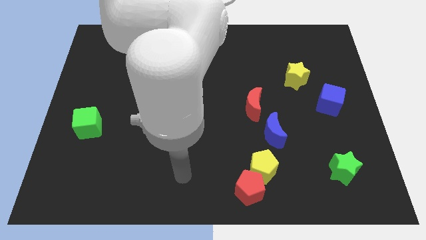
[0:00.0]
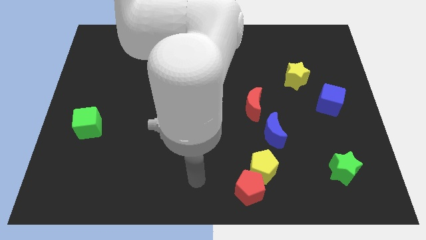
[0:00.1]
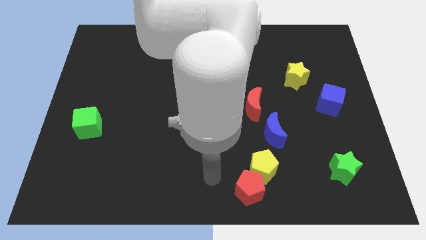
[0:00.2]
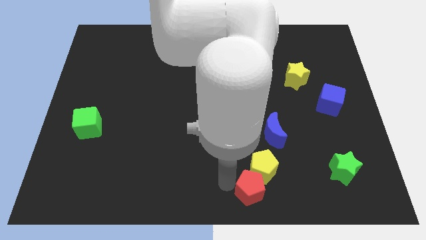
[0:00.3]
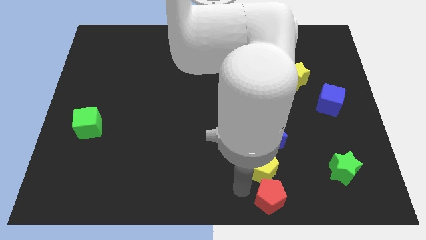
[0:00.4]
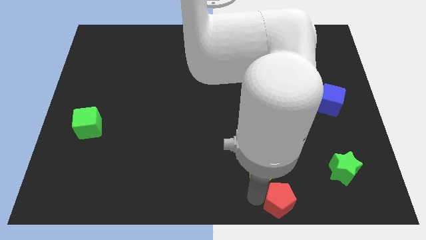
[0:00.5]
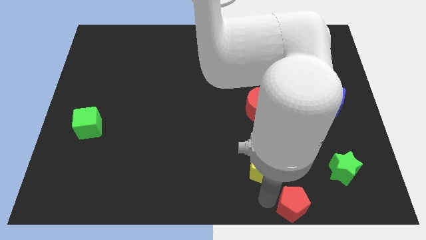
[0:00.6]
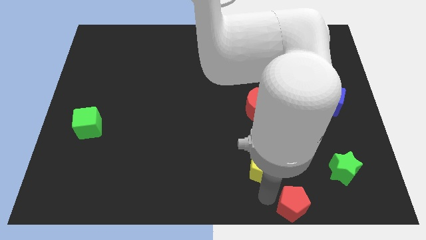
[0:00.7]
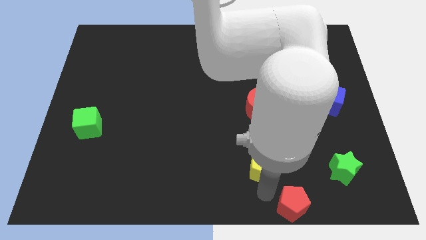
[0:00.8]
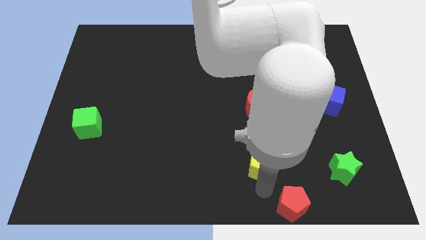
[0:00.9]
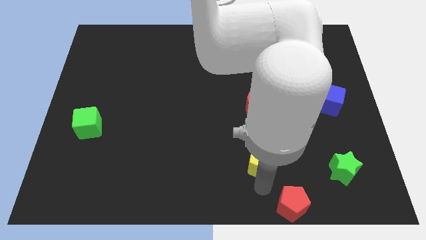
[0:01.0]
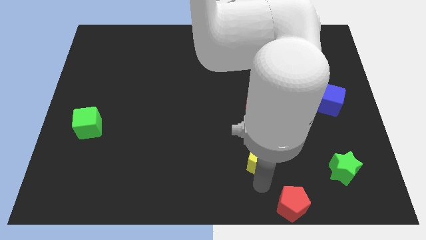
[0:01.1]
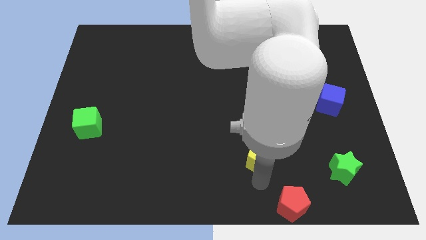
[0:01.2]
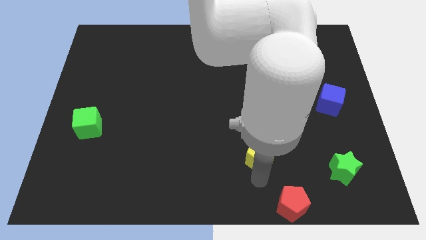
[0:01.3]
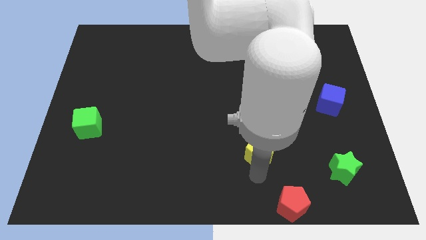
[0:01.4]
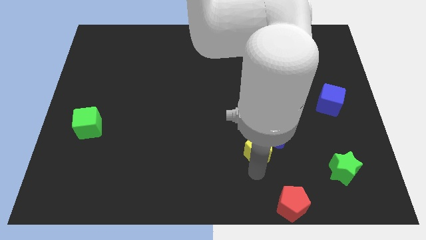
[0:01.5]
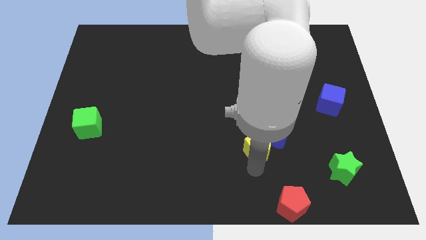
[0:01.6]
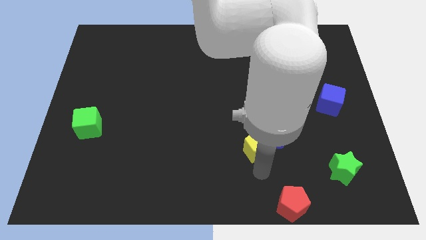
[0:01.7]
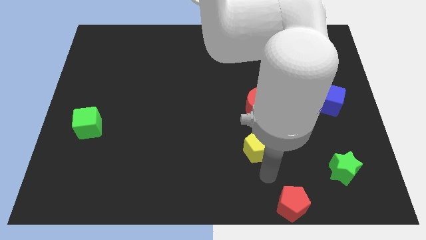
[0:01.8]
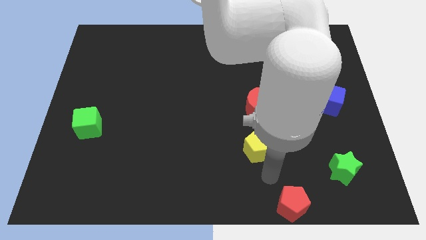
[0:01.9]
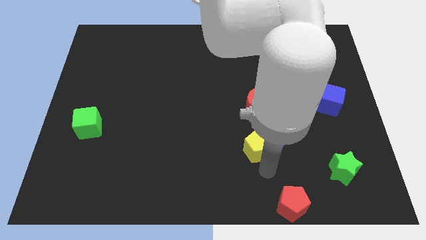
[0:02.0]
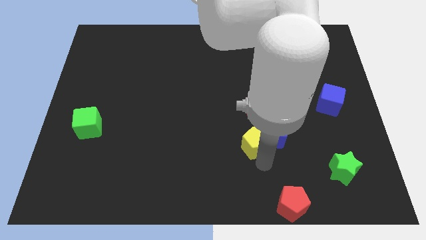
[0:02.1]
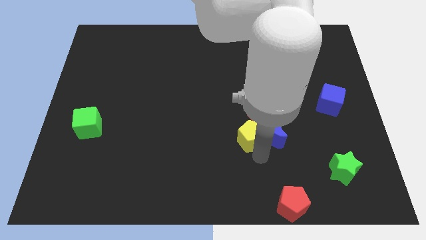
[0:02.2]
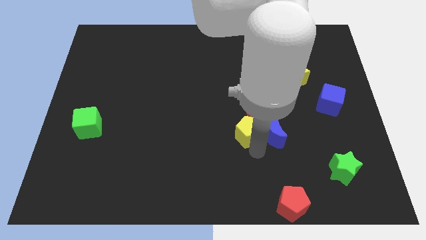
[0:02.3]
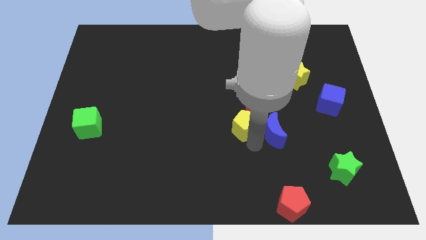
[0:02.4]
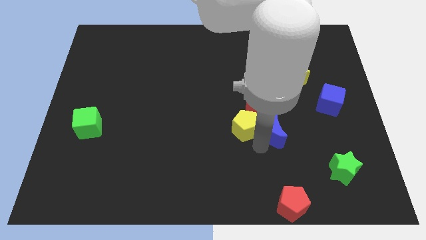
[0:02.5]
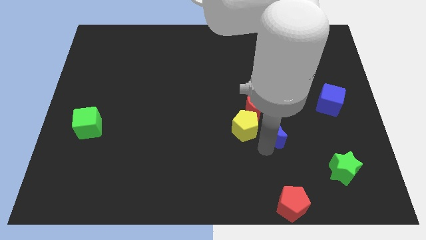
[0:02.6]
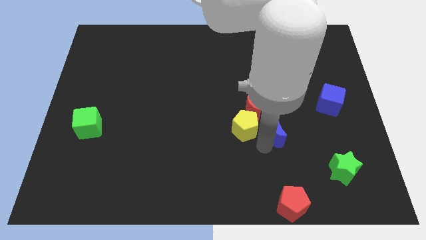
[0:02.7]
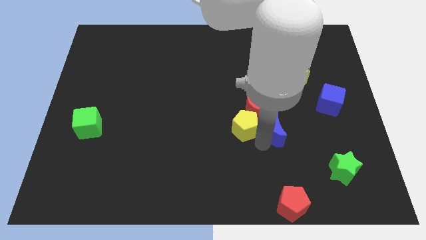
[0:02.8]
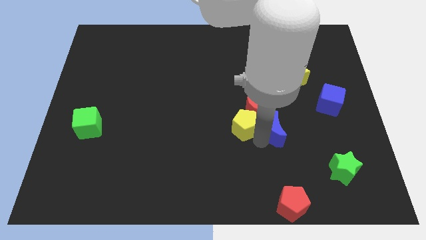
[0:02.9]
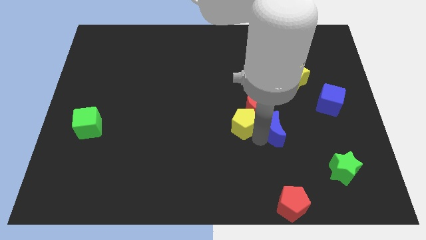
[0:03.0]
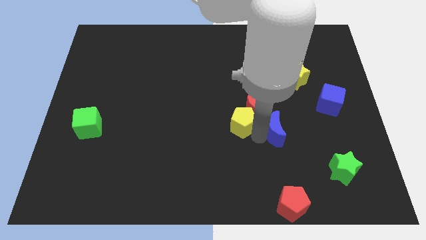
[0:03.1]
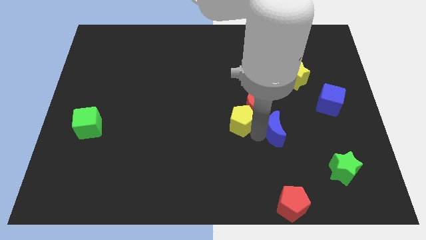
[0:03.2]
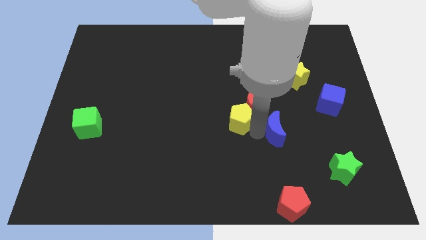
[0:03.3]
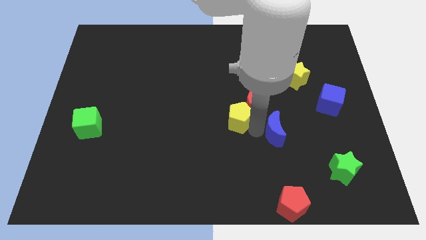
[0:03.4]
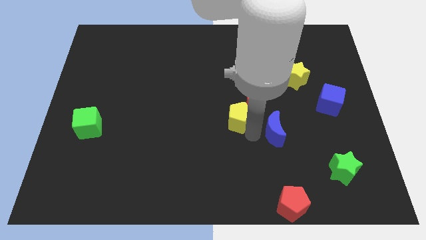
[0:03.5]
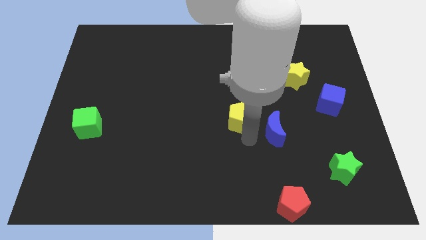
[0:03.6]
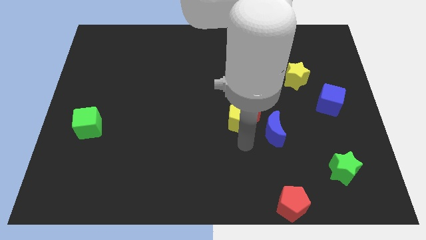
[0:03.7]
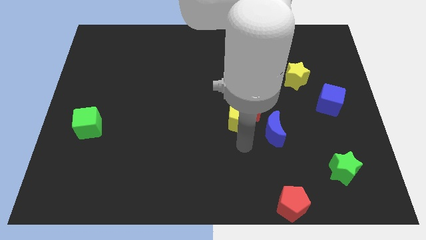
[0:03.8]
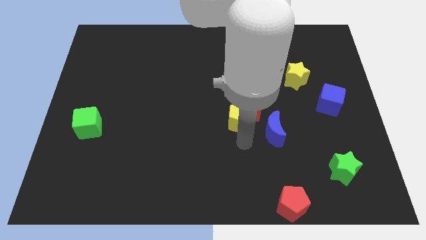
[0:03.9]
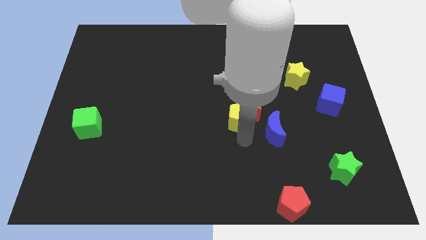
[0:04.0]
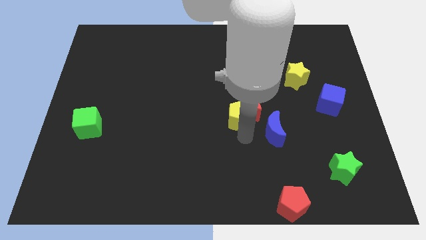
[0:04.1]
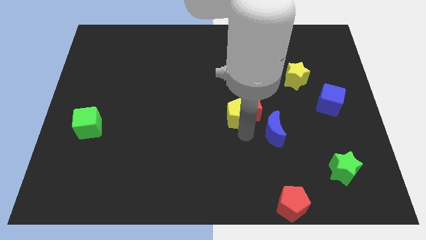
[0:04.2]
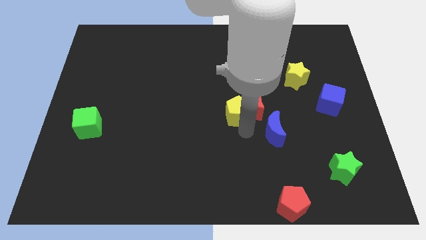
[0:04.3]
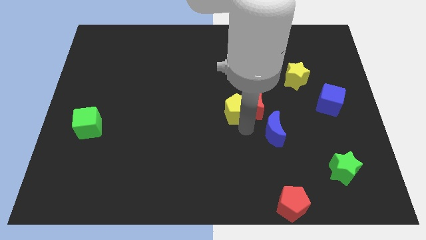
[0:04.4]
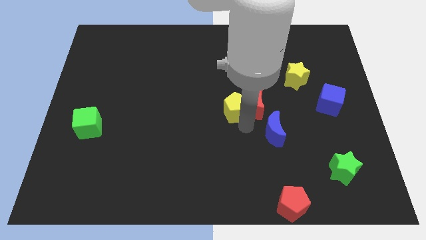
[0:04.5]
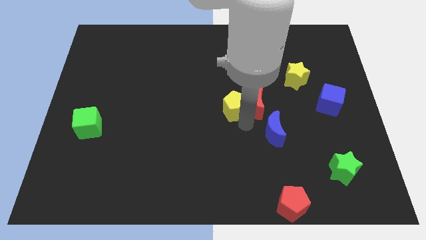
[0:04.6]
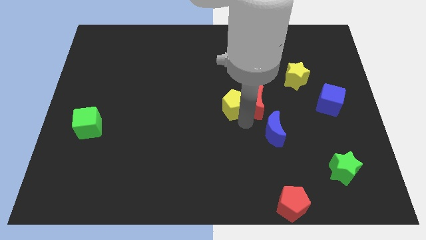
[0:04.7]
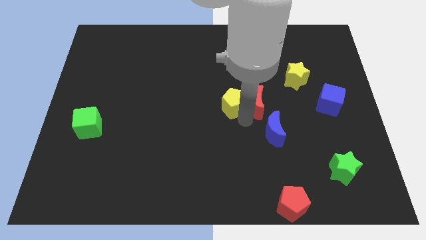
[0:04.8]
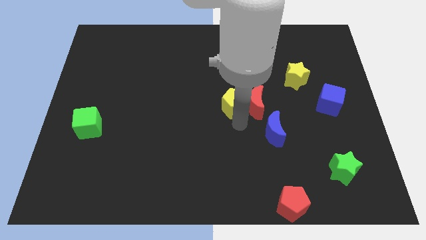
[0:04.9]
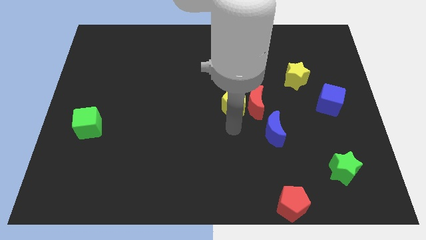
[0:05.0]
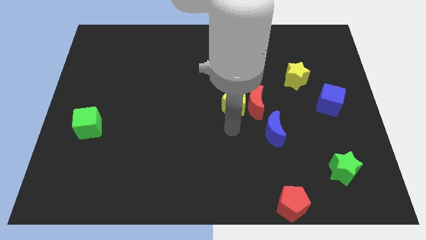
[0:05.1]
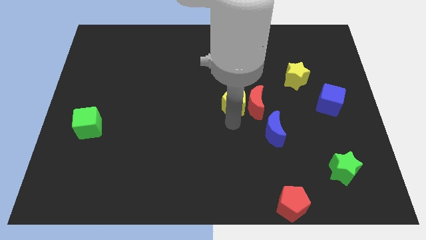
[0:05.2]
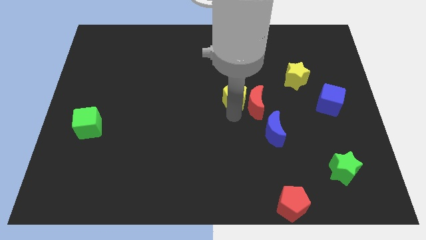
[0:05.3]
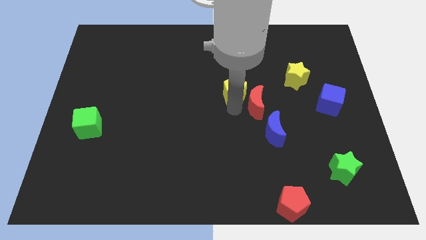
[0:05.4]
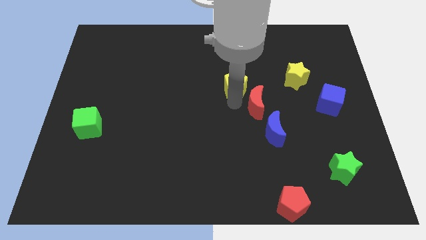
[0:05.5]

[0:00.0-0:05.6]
move the yellow pentagon up

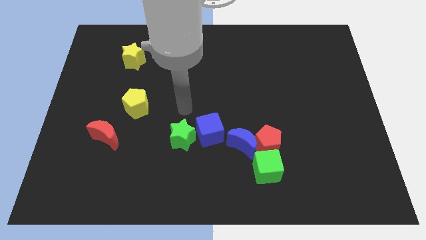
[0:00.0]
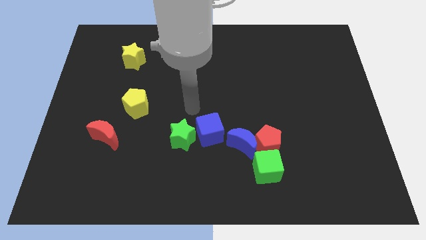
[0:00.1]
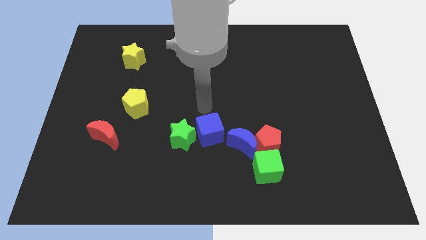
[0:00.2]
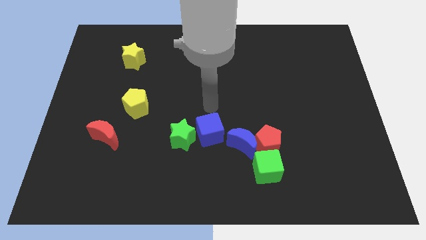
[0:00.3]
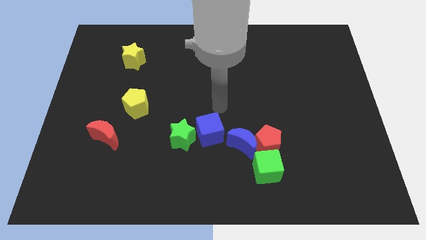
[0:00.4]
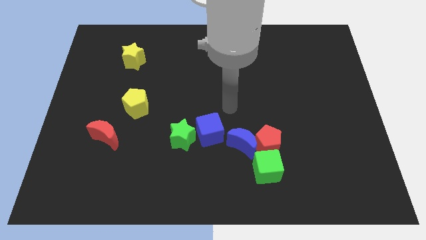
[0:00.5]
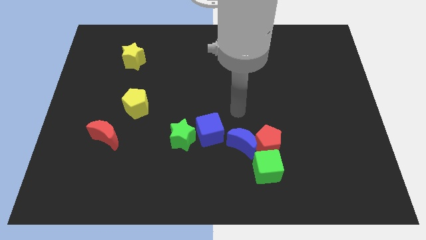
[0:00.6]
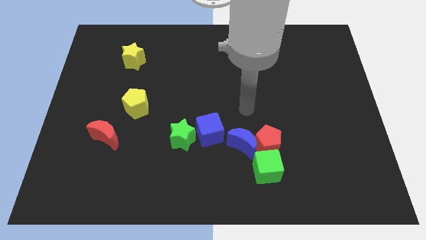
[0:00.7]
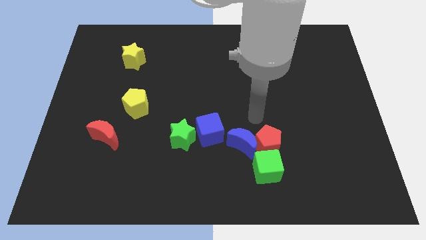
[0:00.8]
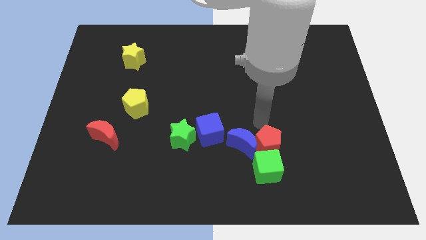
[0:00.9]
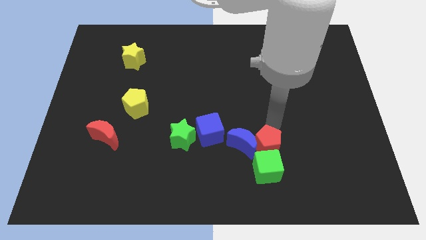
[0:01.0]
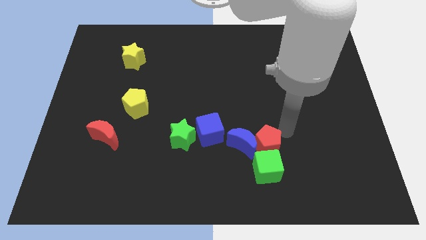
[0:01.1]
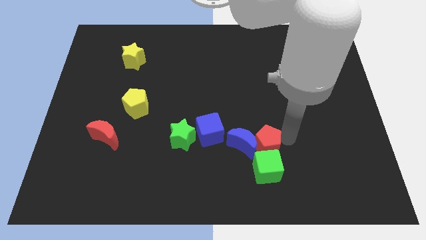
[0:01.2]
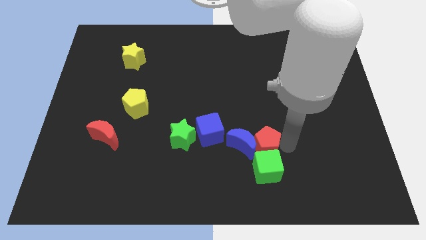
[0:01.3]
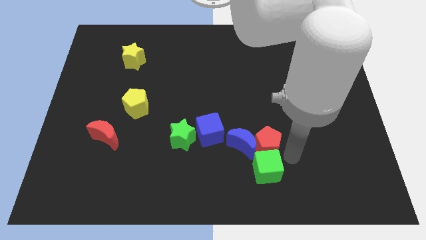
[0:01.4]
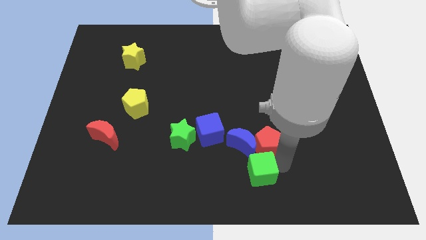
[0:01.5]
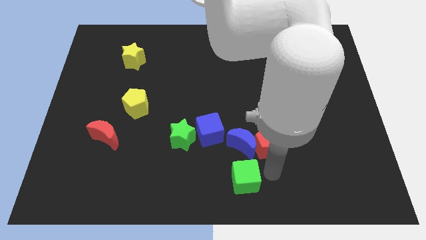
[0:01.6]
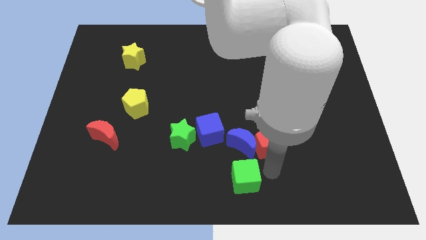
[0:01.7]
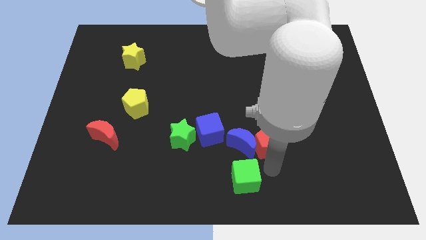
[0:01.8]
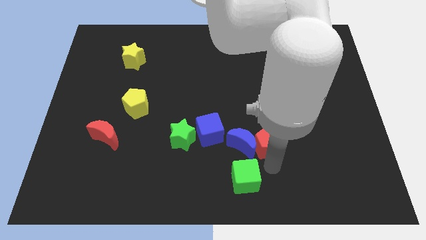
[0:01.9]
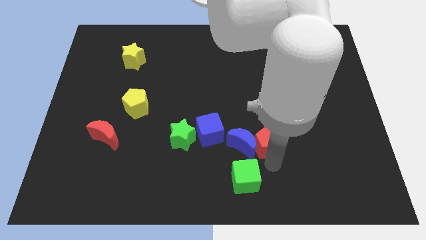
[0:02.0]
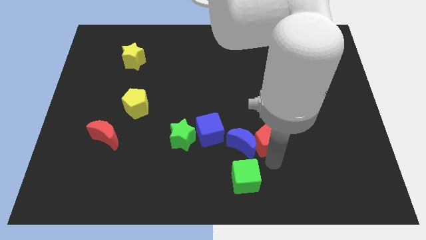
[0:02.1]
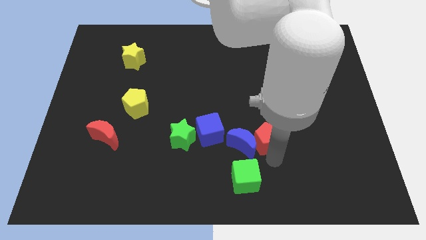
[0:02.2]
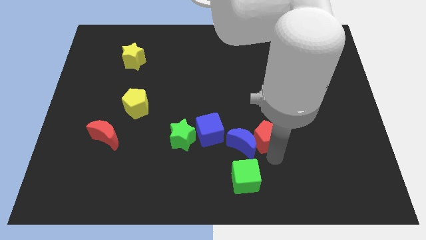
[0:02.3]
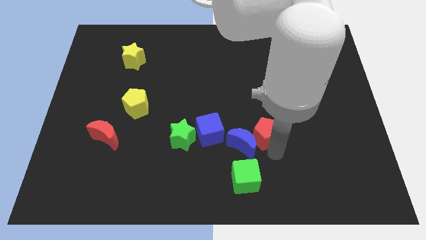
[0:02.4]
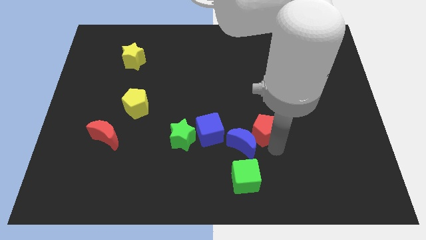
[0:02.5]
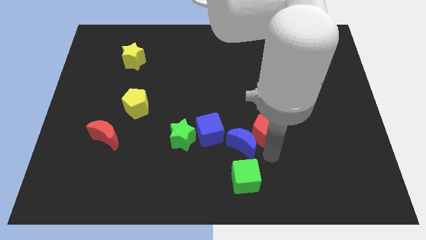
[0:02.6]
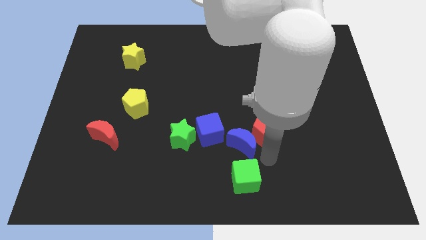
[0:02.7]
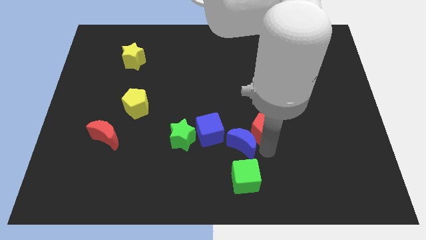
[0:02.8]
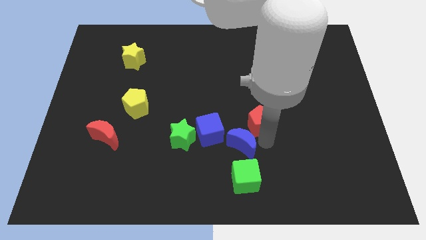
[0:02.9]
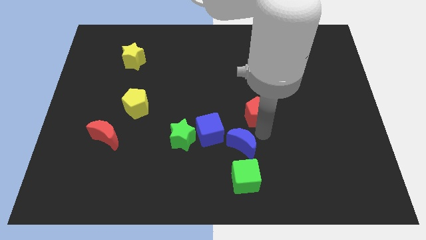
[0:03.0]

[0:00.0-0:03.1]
push the red pentagon a little up
